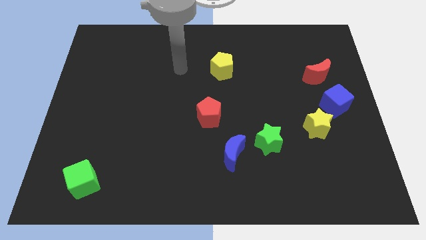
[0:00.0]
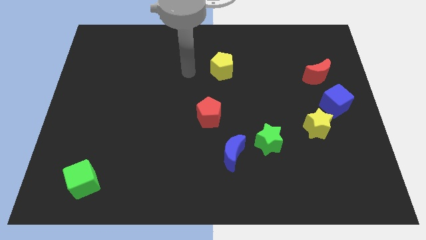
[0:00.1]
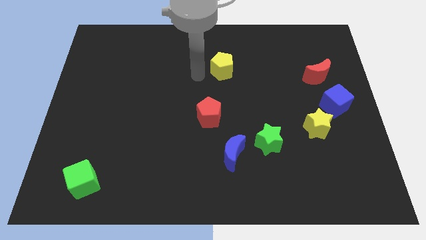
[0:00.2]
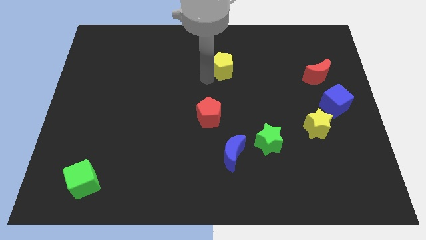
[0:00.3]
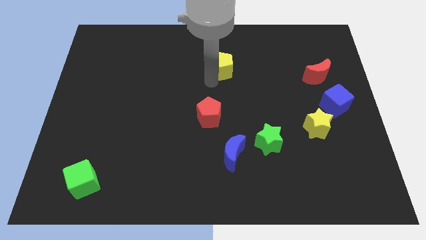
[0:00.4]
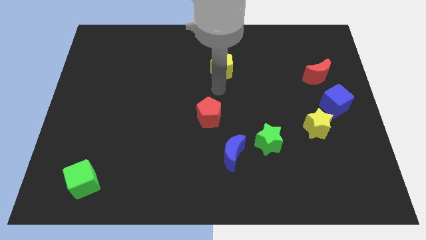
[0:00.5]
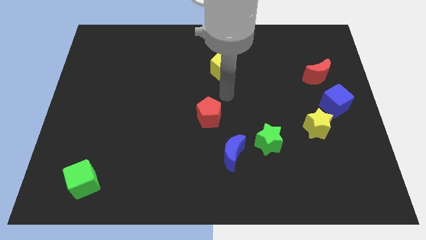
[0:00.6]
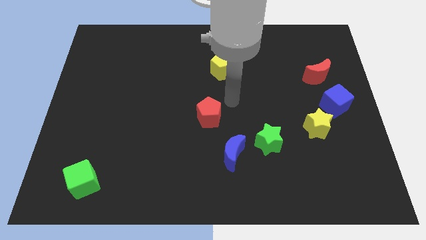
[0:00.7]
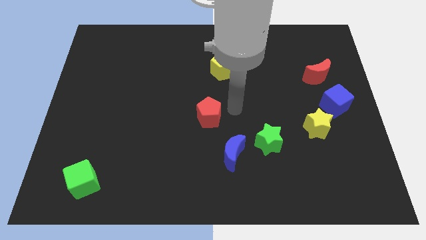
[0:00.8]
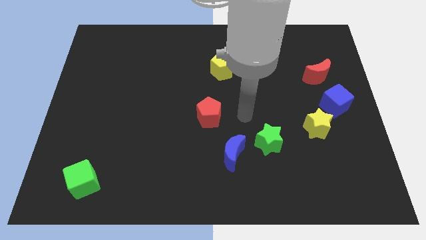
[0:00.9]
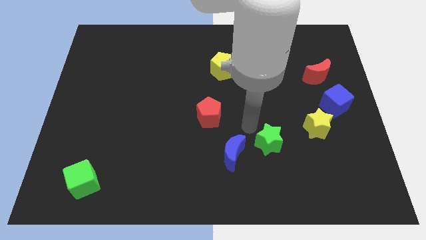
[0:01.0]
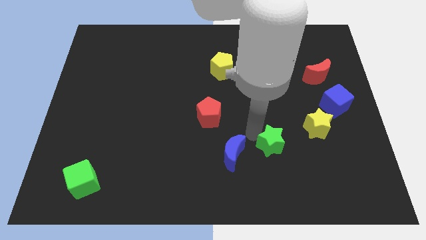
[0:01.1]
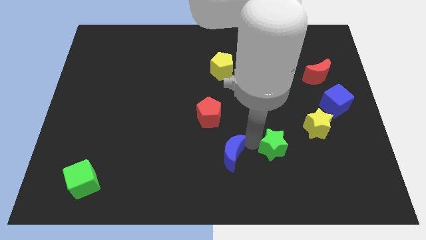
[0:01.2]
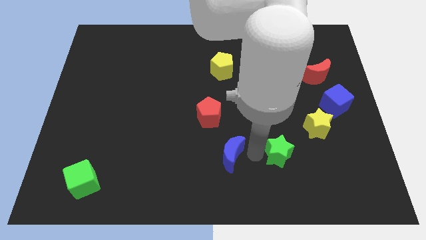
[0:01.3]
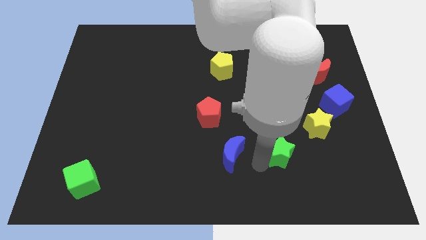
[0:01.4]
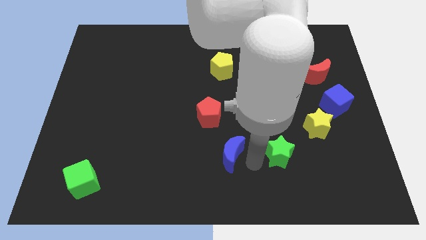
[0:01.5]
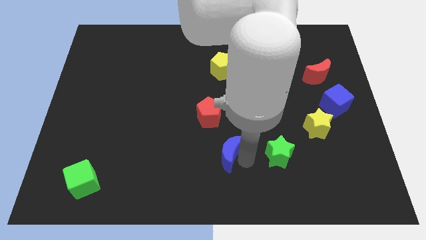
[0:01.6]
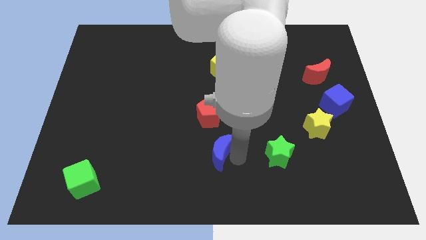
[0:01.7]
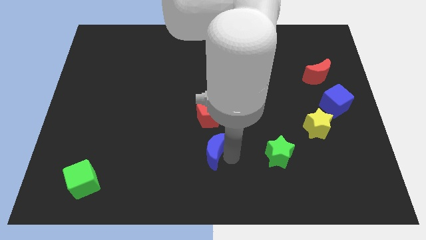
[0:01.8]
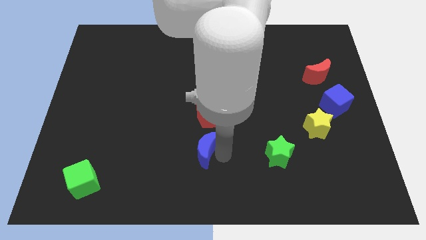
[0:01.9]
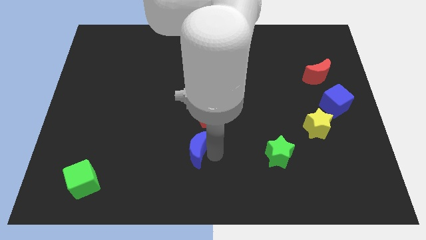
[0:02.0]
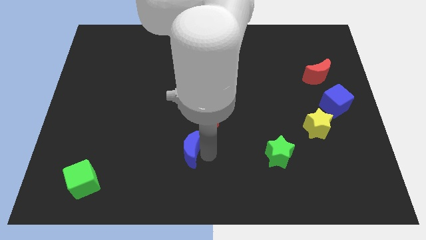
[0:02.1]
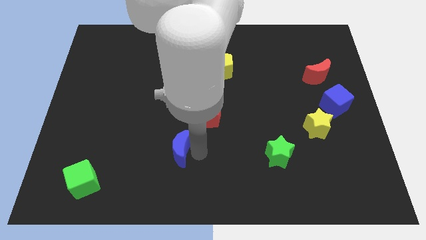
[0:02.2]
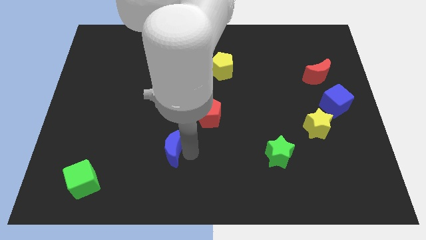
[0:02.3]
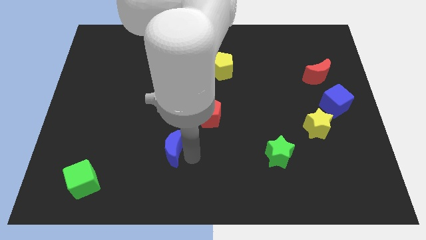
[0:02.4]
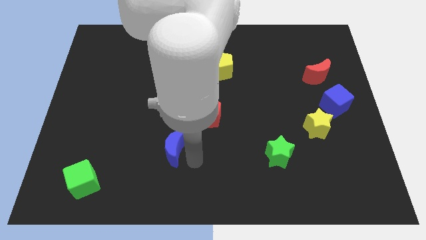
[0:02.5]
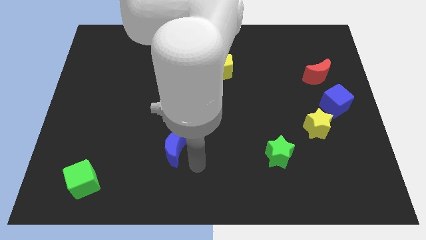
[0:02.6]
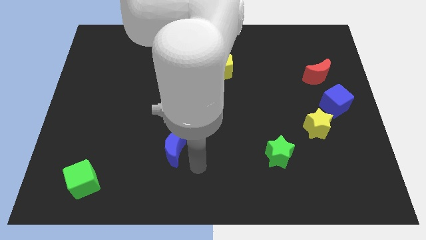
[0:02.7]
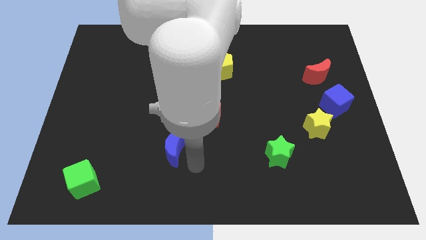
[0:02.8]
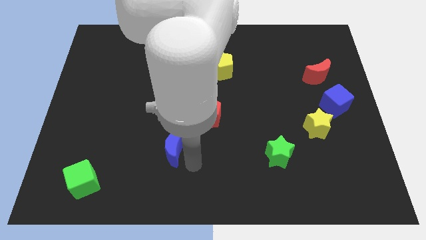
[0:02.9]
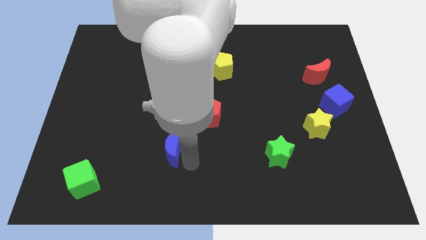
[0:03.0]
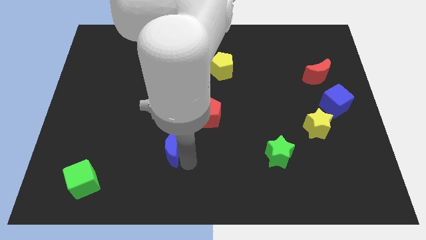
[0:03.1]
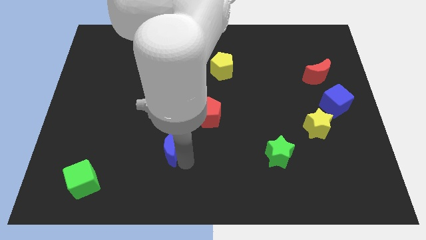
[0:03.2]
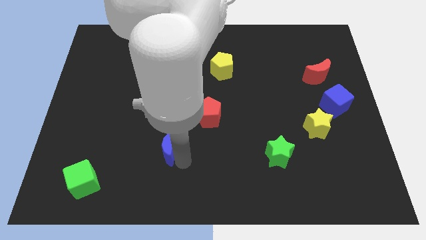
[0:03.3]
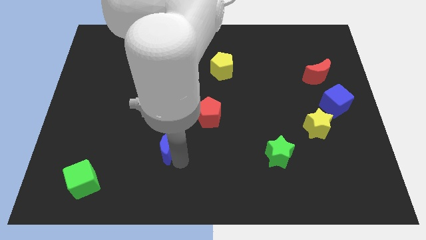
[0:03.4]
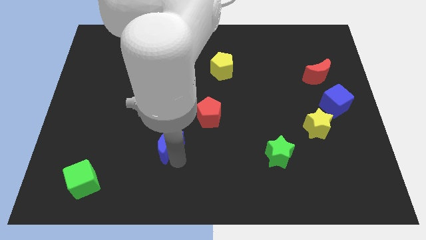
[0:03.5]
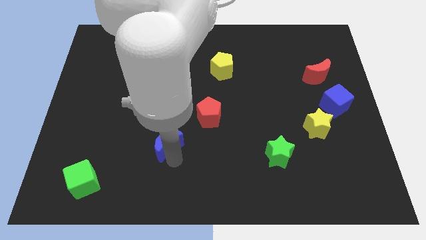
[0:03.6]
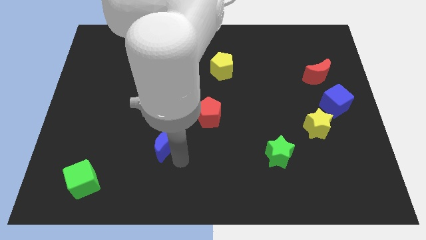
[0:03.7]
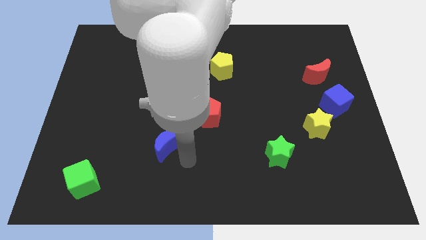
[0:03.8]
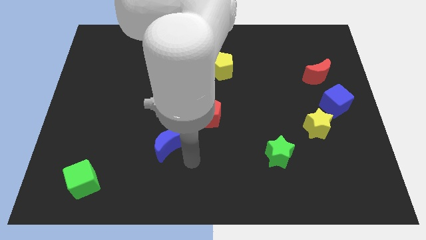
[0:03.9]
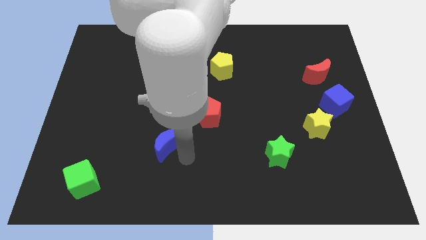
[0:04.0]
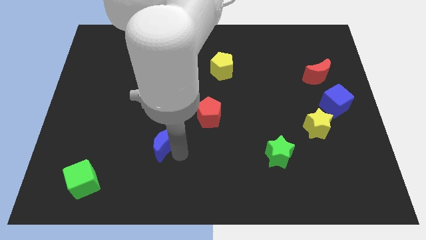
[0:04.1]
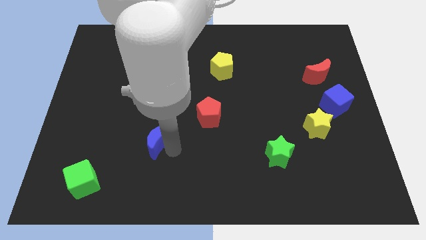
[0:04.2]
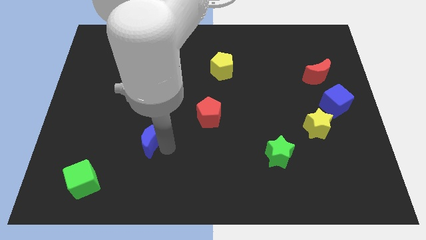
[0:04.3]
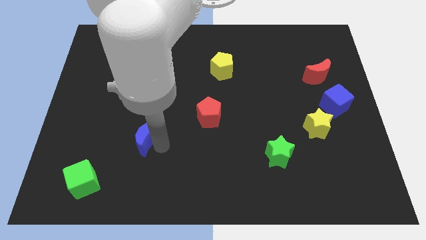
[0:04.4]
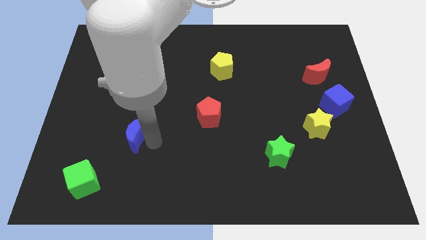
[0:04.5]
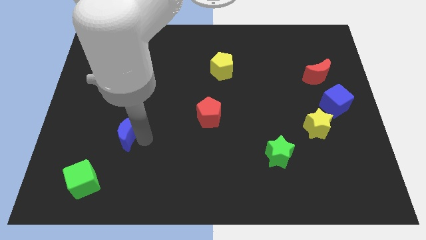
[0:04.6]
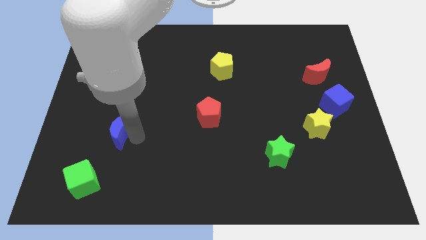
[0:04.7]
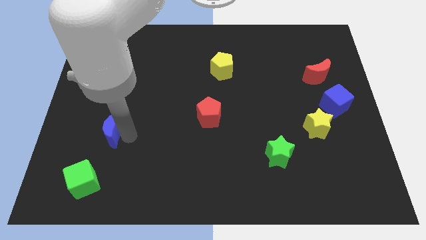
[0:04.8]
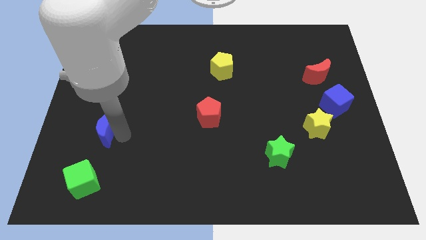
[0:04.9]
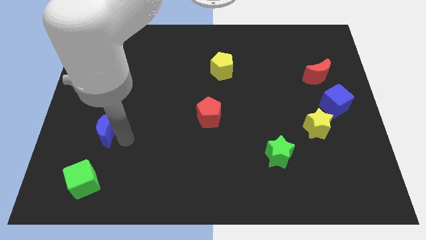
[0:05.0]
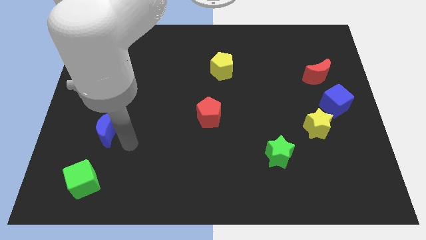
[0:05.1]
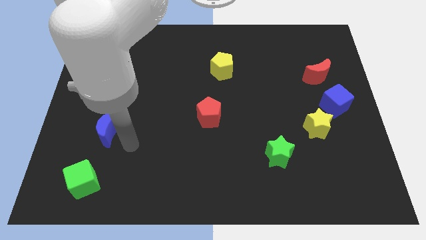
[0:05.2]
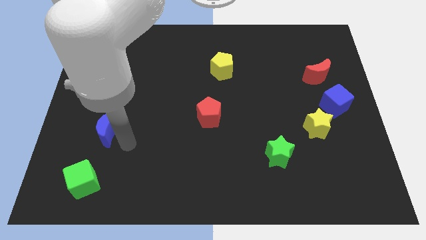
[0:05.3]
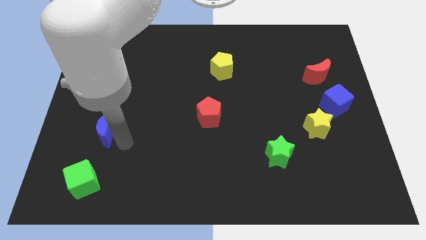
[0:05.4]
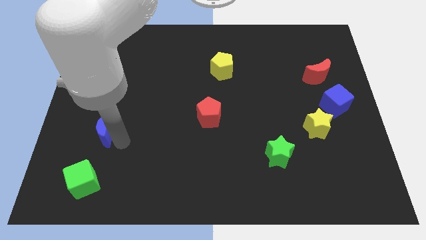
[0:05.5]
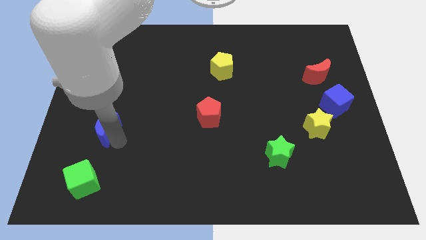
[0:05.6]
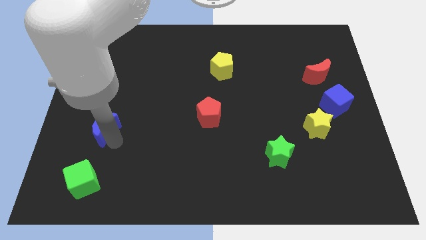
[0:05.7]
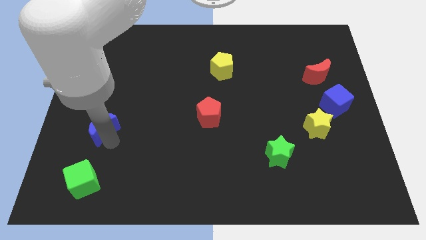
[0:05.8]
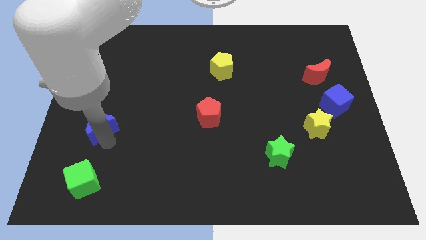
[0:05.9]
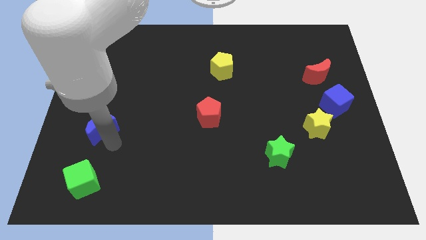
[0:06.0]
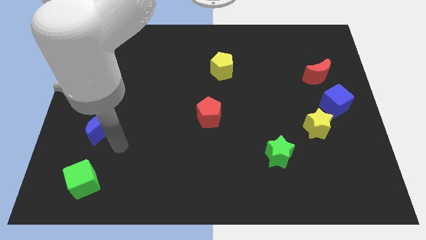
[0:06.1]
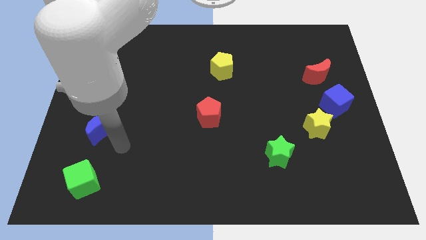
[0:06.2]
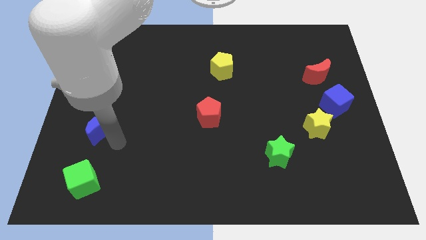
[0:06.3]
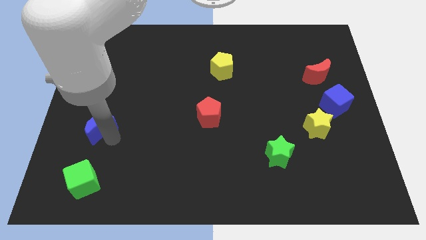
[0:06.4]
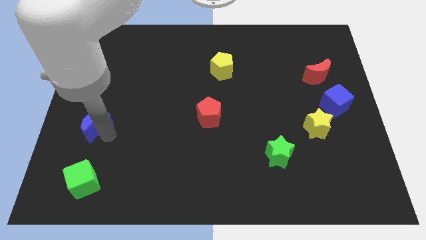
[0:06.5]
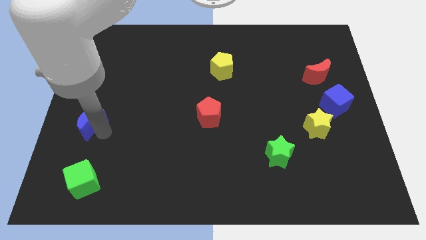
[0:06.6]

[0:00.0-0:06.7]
put the blue moon to the left side
